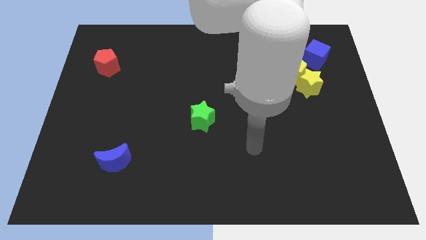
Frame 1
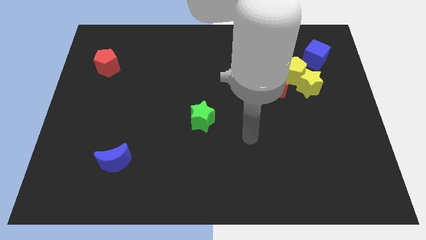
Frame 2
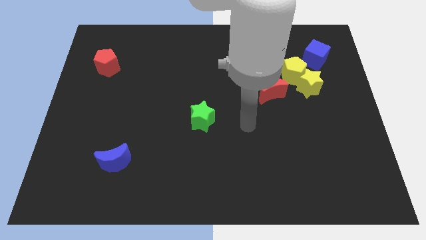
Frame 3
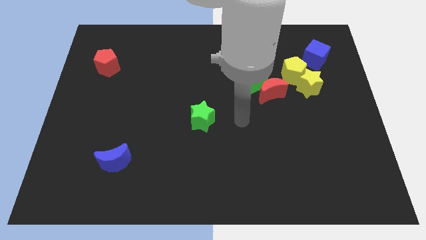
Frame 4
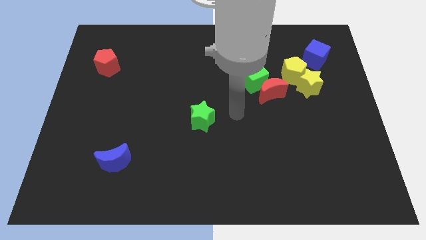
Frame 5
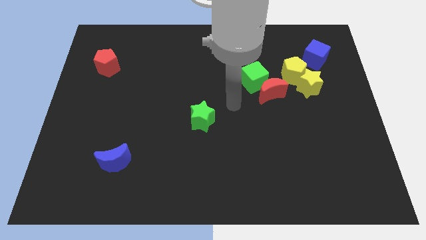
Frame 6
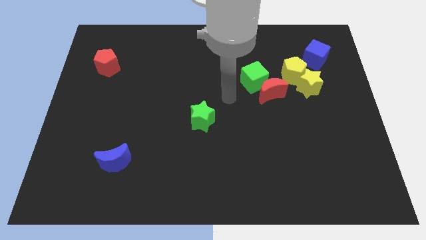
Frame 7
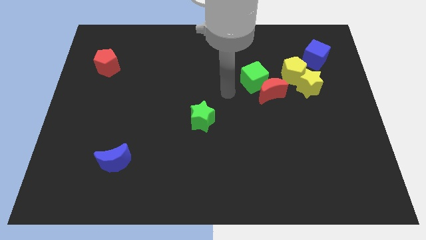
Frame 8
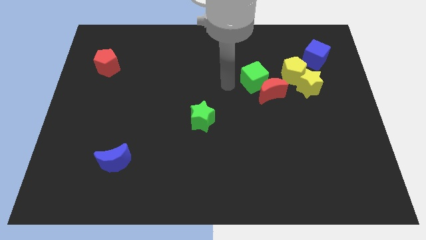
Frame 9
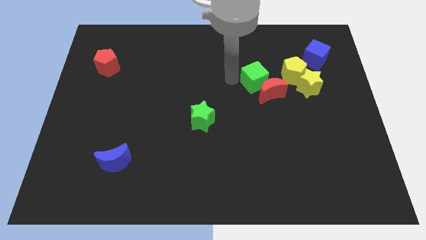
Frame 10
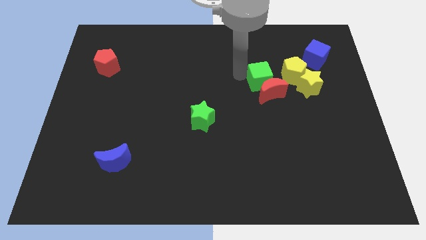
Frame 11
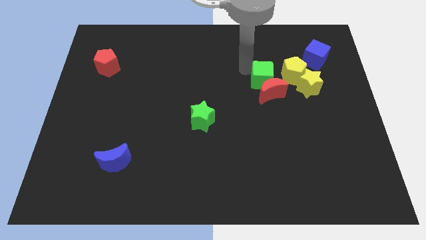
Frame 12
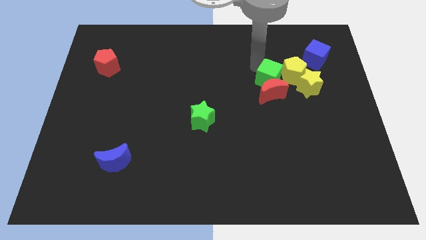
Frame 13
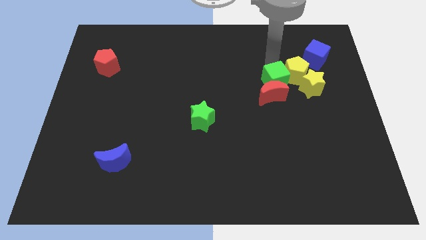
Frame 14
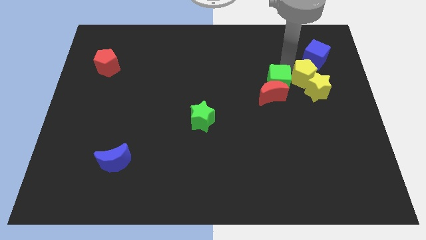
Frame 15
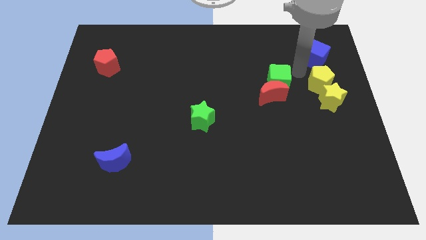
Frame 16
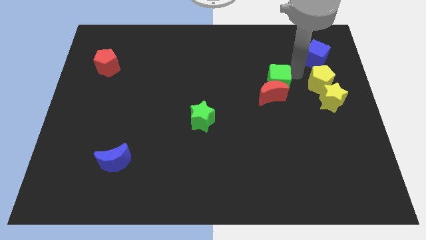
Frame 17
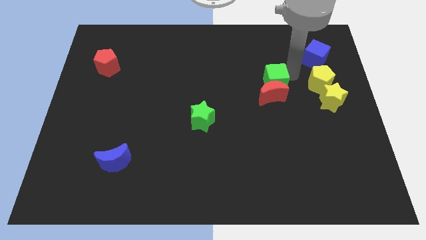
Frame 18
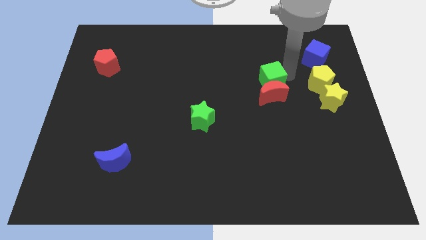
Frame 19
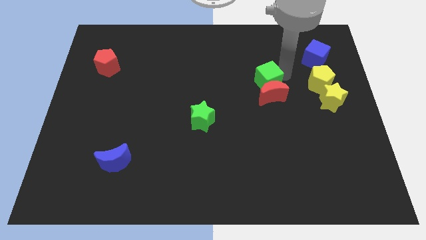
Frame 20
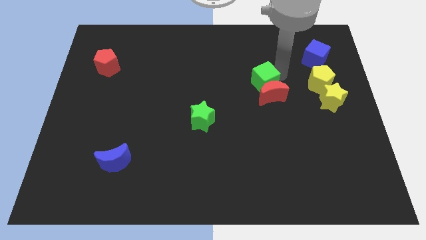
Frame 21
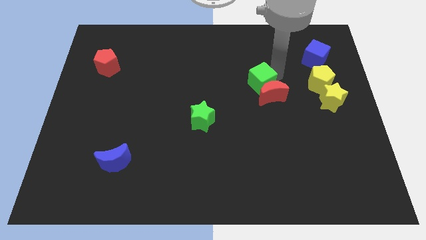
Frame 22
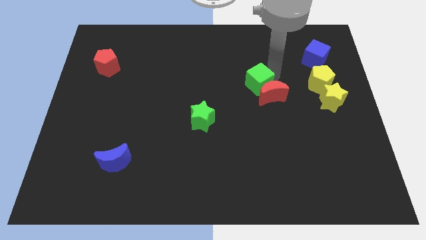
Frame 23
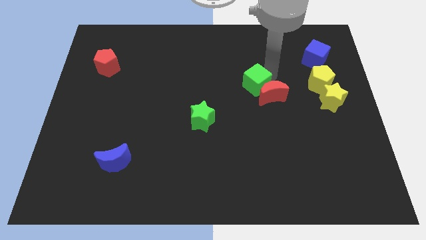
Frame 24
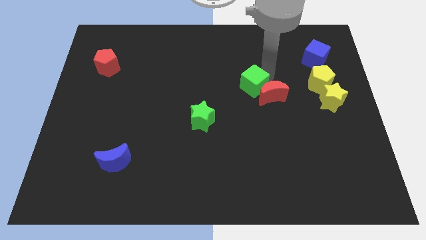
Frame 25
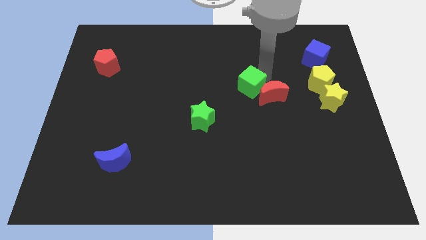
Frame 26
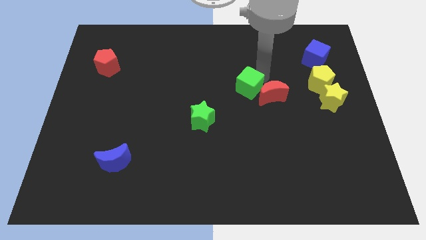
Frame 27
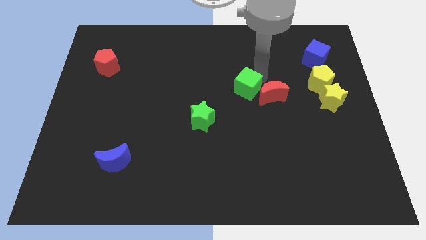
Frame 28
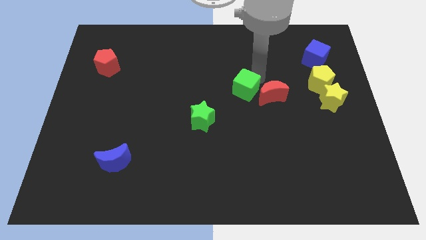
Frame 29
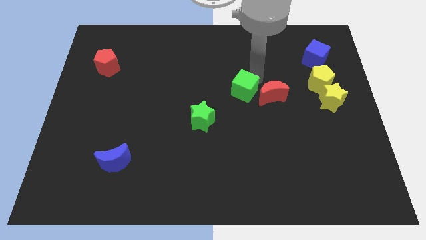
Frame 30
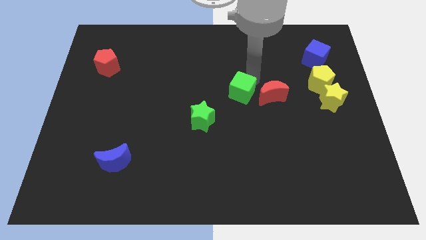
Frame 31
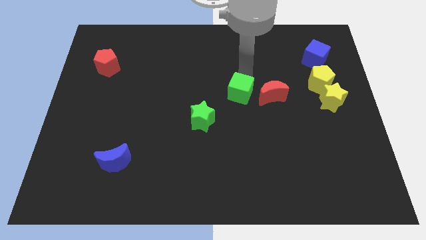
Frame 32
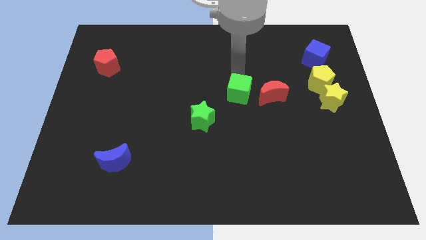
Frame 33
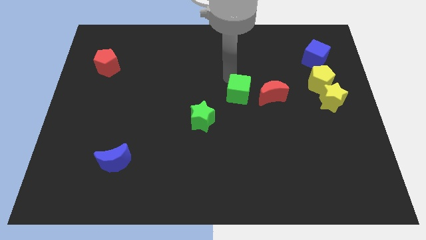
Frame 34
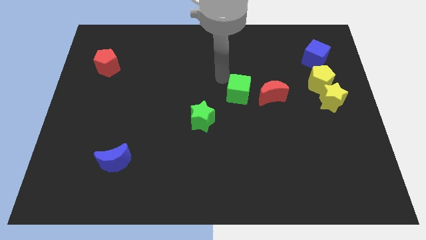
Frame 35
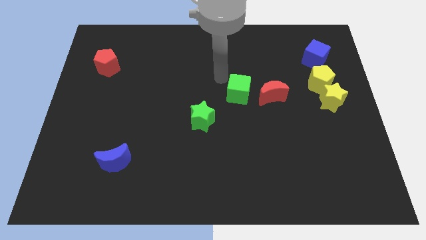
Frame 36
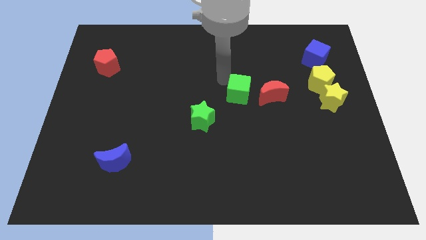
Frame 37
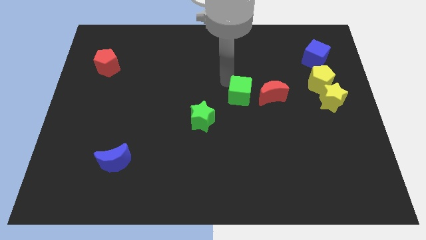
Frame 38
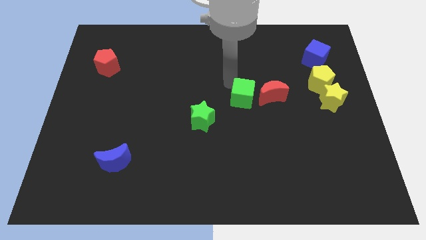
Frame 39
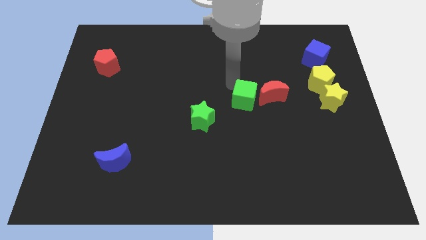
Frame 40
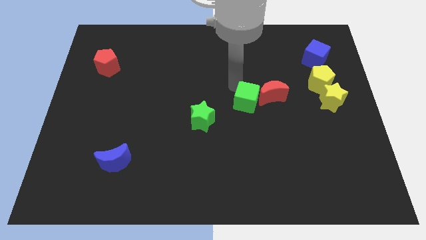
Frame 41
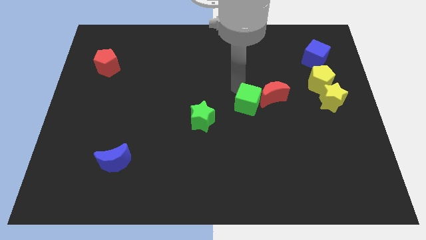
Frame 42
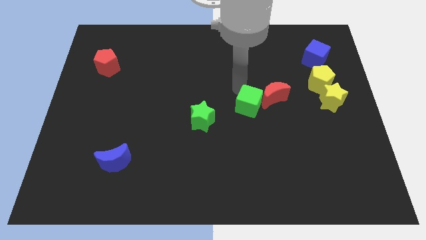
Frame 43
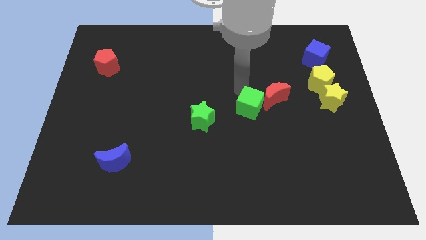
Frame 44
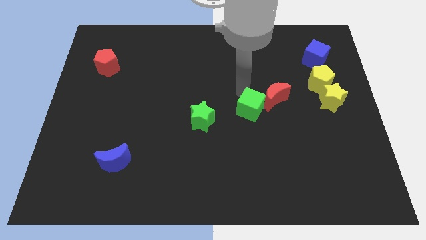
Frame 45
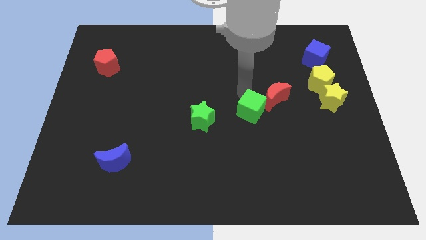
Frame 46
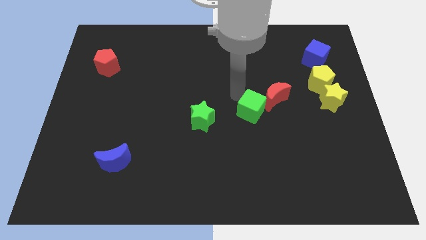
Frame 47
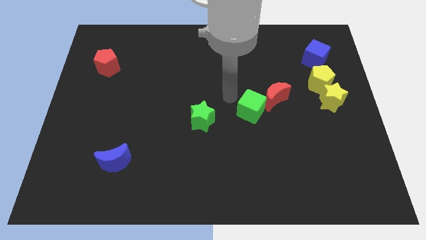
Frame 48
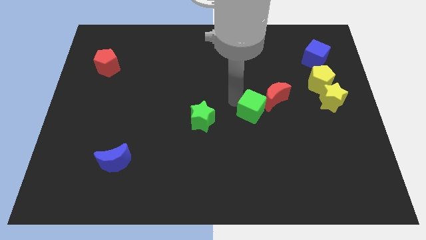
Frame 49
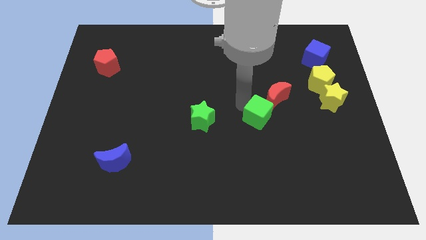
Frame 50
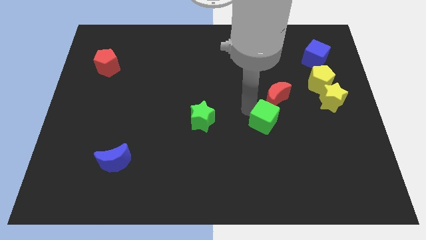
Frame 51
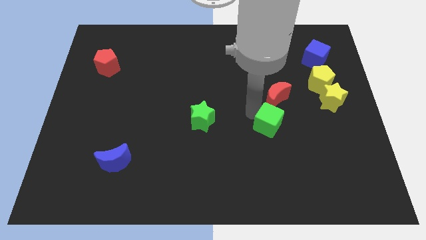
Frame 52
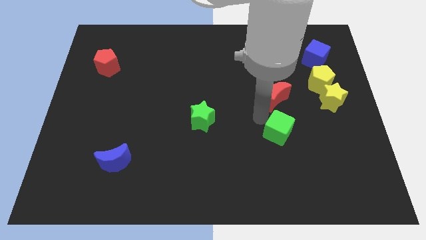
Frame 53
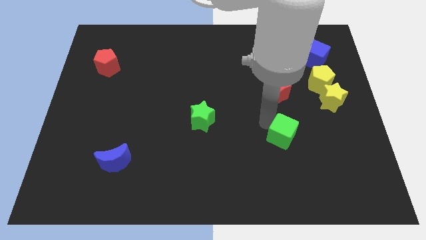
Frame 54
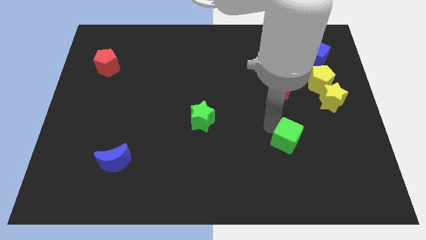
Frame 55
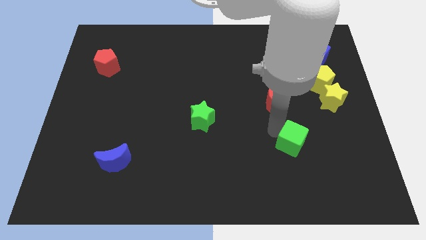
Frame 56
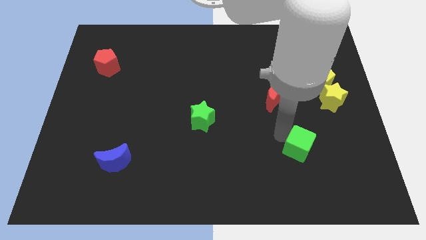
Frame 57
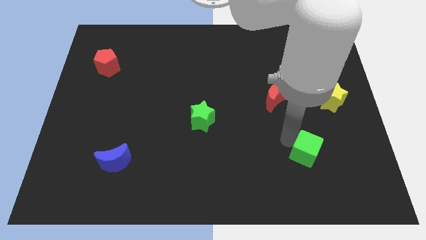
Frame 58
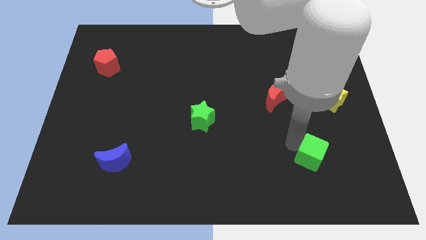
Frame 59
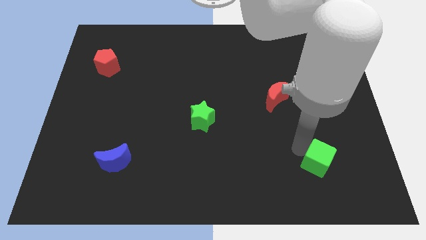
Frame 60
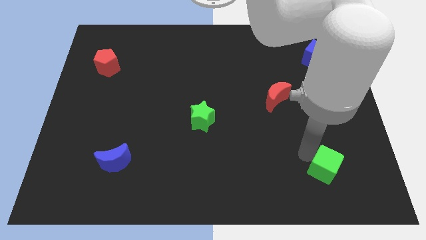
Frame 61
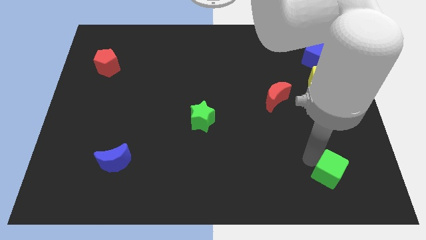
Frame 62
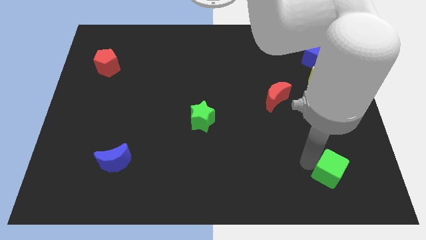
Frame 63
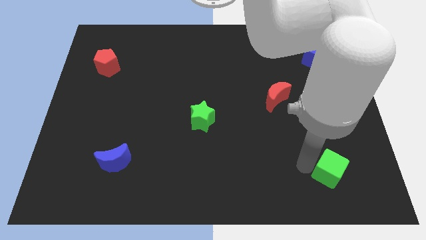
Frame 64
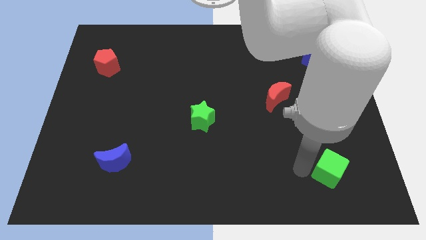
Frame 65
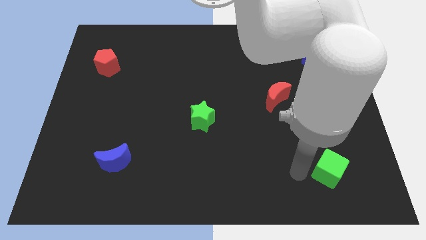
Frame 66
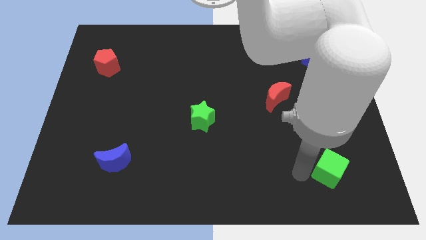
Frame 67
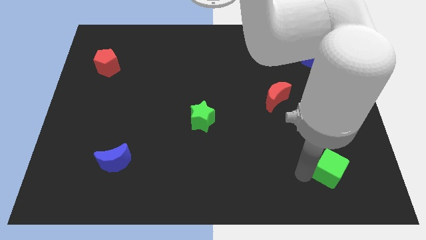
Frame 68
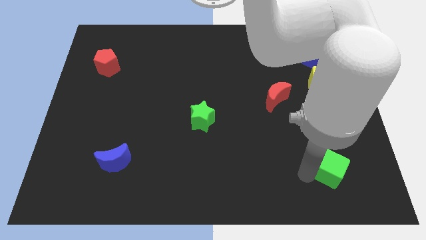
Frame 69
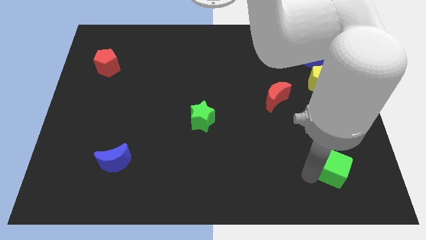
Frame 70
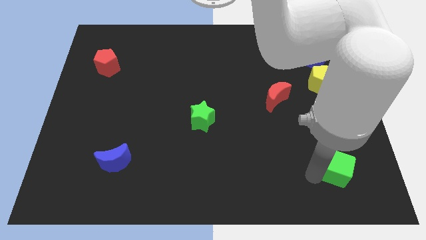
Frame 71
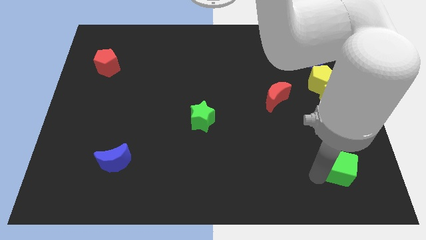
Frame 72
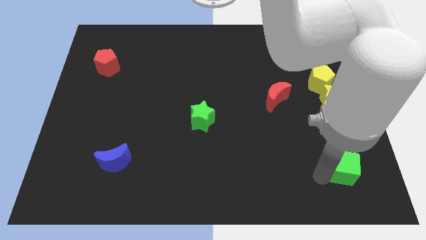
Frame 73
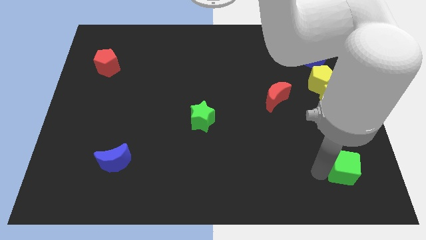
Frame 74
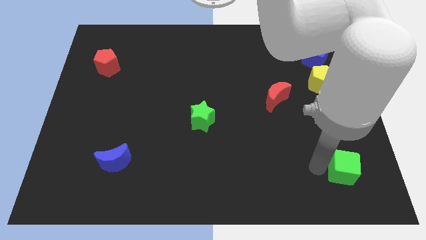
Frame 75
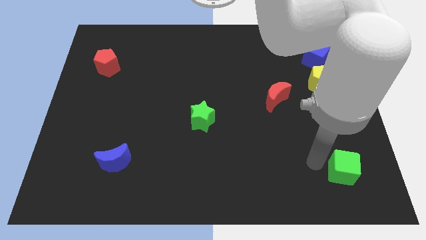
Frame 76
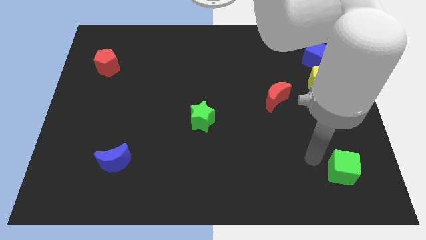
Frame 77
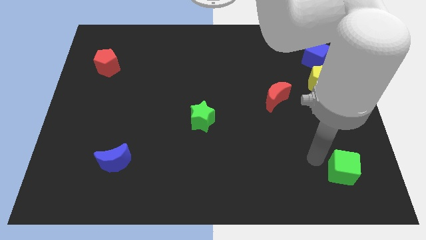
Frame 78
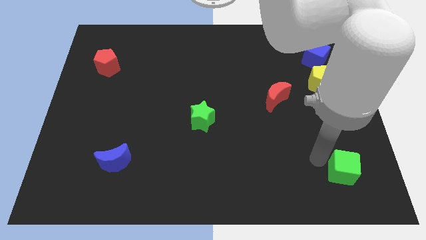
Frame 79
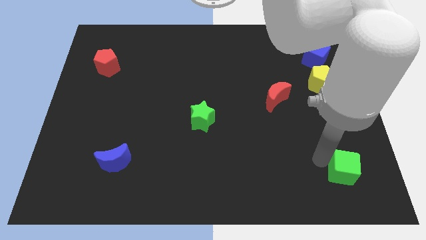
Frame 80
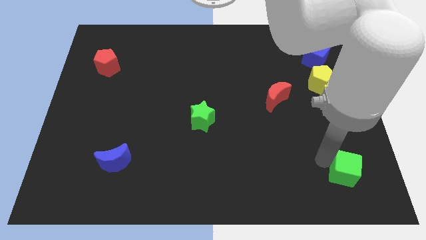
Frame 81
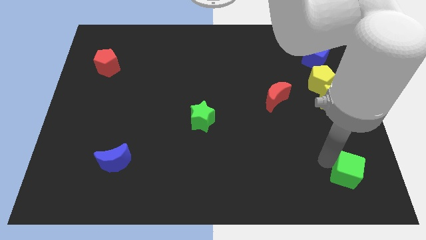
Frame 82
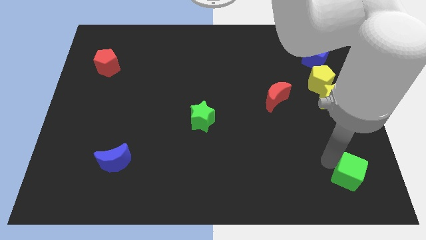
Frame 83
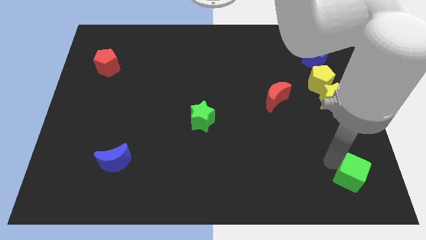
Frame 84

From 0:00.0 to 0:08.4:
push the green cube to the lower right corner
